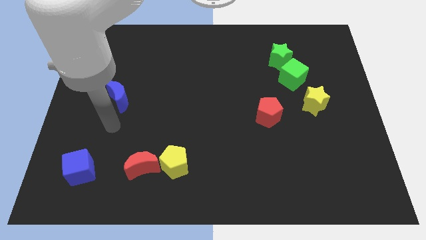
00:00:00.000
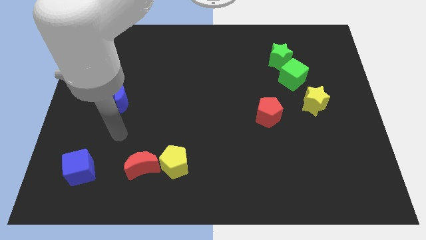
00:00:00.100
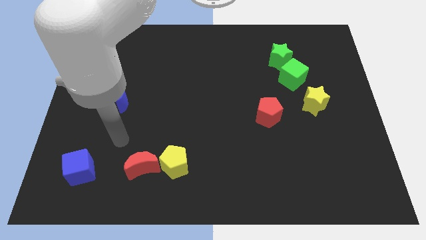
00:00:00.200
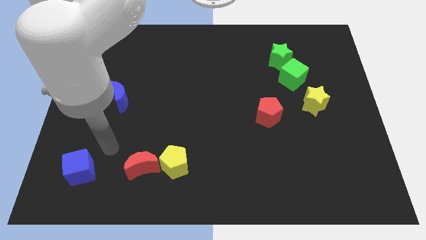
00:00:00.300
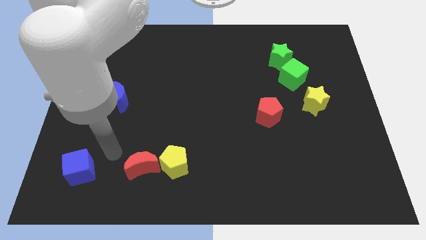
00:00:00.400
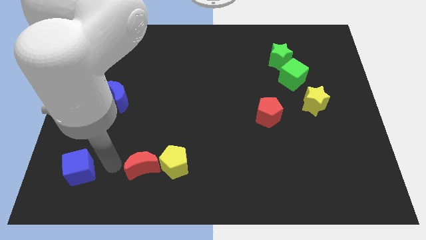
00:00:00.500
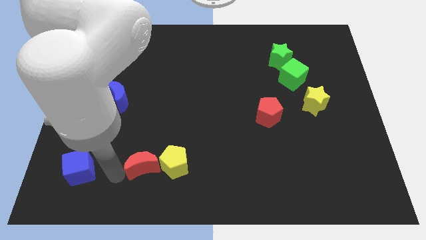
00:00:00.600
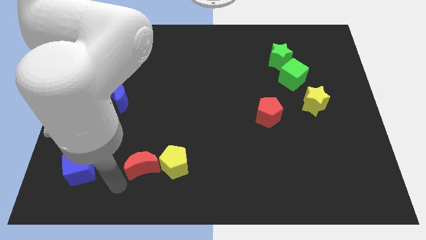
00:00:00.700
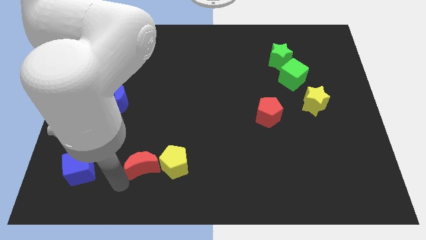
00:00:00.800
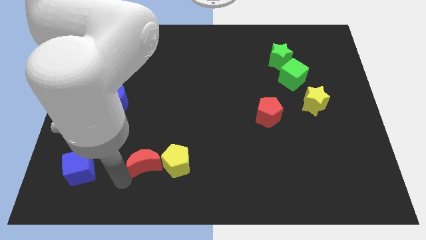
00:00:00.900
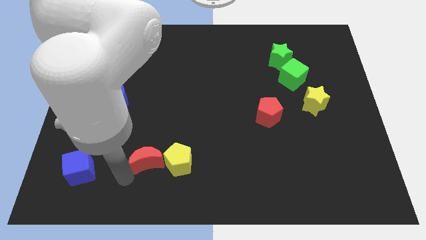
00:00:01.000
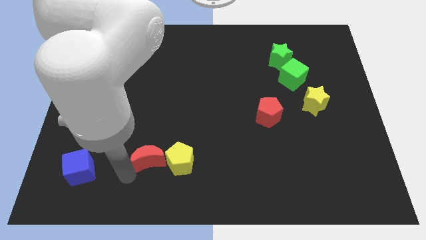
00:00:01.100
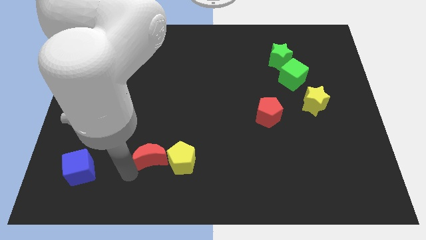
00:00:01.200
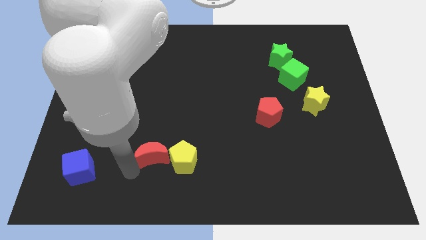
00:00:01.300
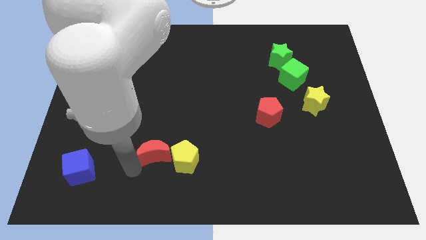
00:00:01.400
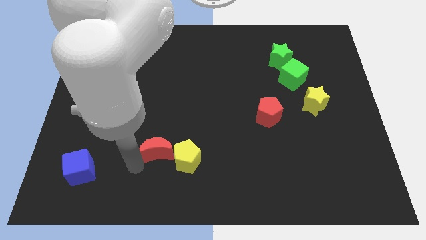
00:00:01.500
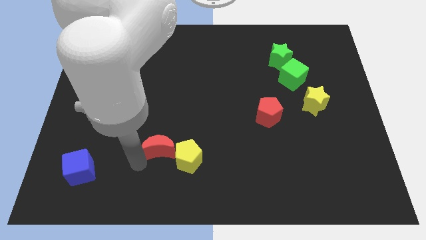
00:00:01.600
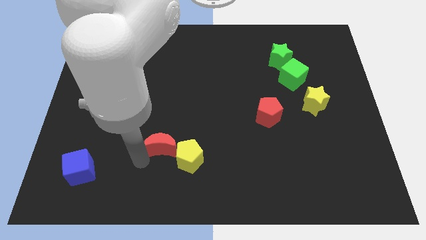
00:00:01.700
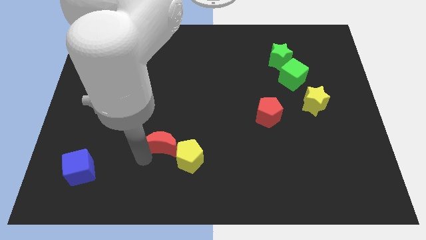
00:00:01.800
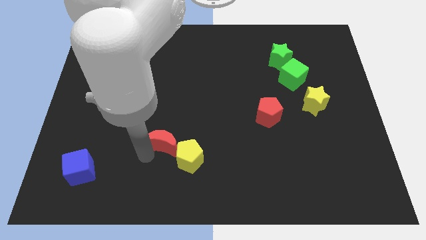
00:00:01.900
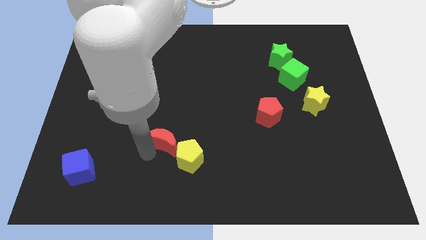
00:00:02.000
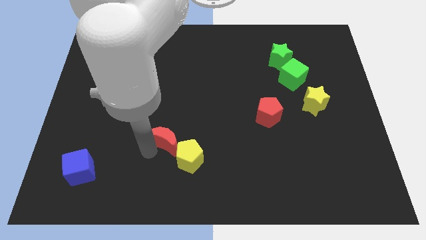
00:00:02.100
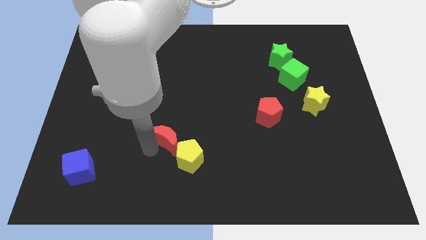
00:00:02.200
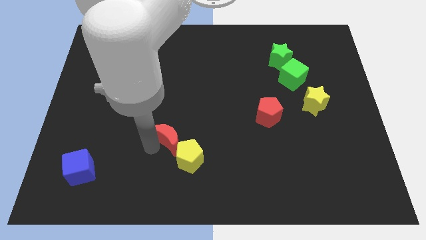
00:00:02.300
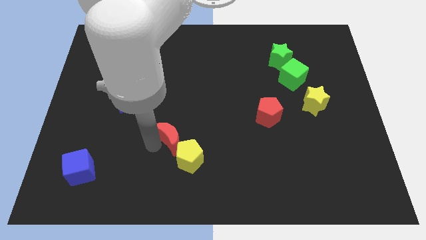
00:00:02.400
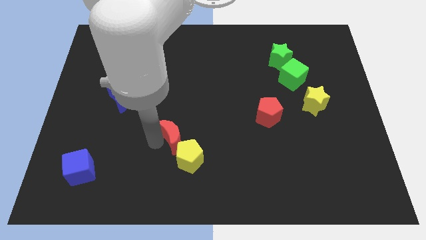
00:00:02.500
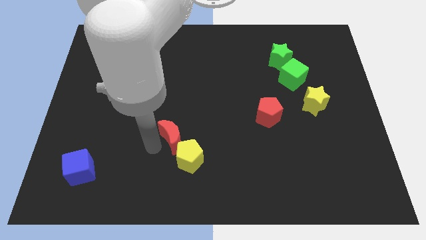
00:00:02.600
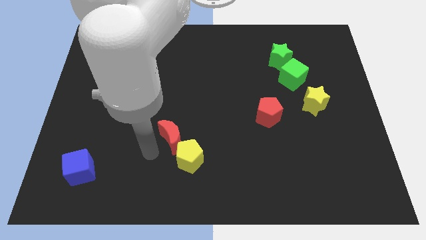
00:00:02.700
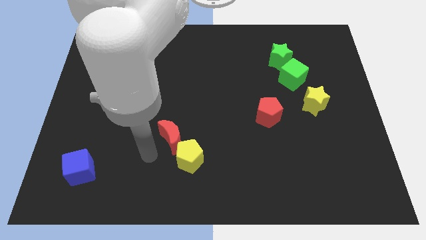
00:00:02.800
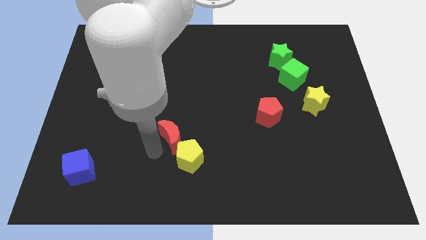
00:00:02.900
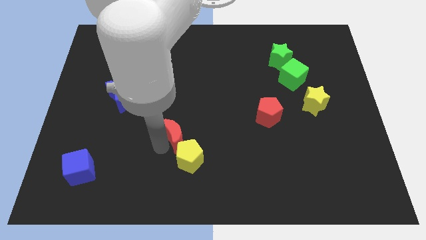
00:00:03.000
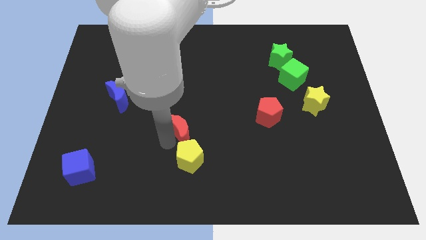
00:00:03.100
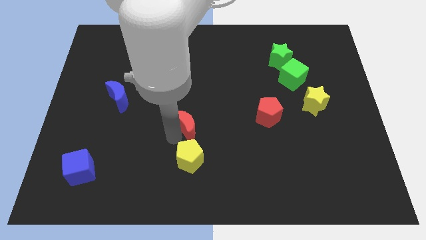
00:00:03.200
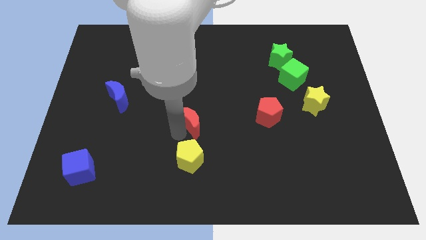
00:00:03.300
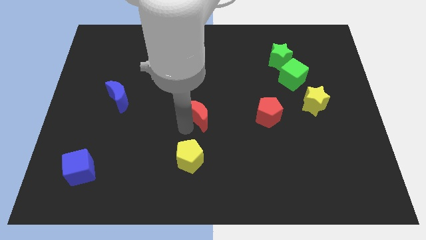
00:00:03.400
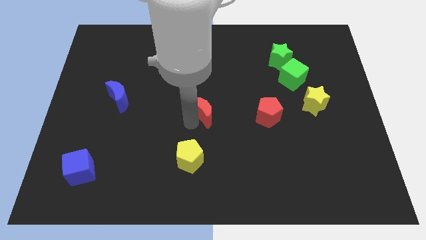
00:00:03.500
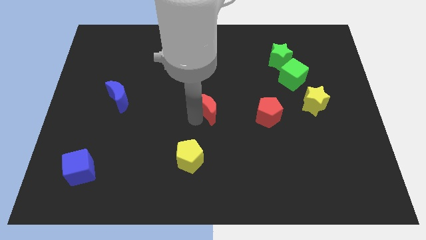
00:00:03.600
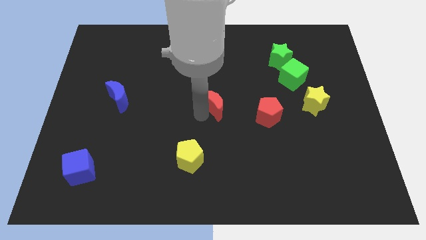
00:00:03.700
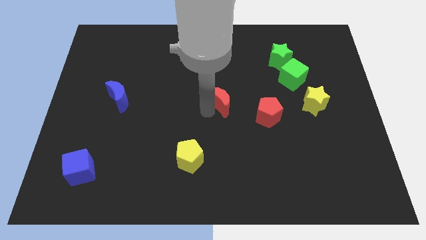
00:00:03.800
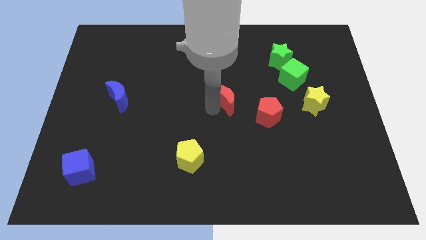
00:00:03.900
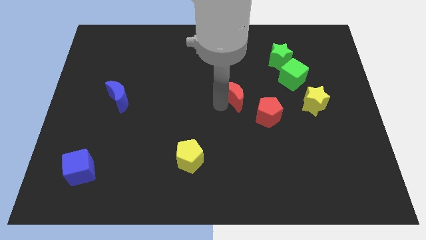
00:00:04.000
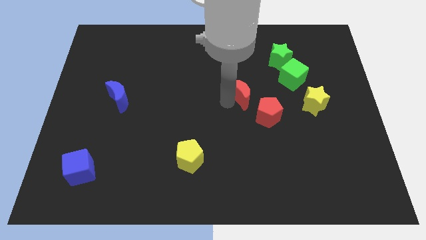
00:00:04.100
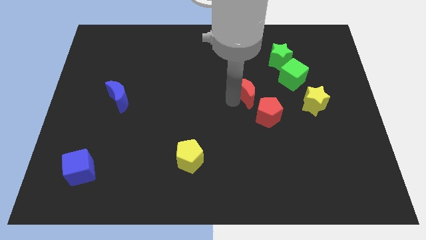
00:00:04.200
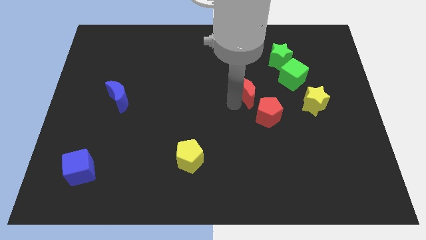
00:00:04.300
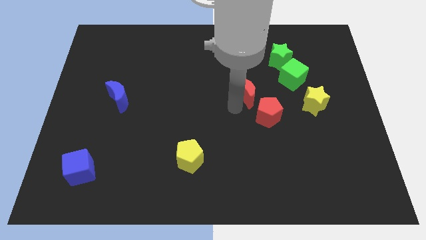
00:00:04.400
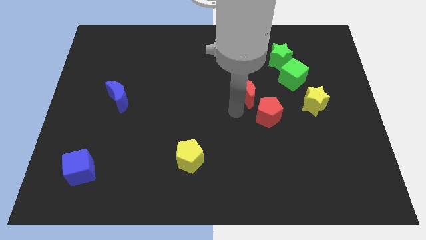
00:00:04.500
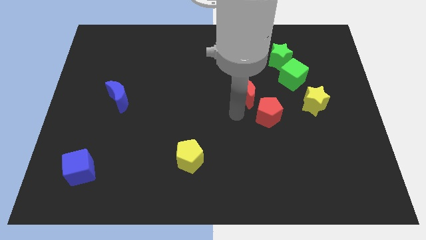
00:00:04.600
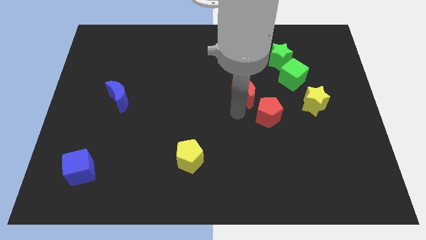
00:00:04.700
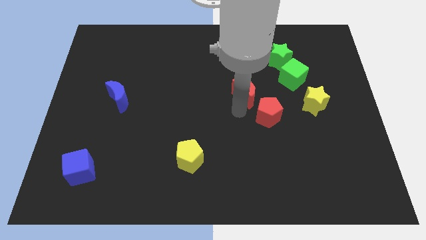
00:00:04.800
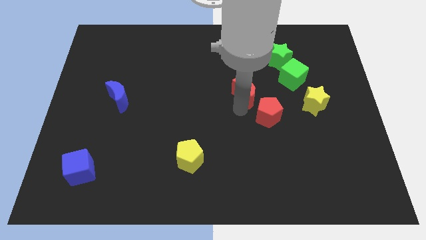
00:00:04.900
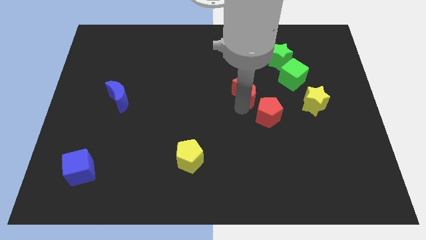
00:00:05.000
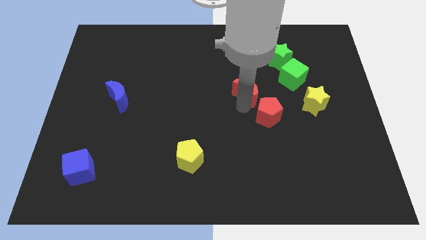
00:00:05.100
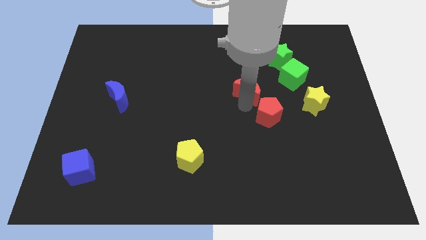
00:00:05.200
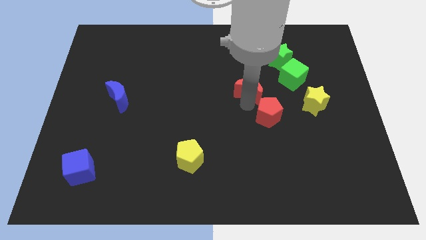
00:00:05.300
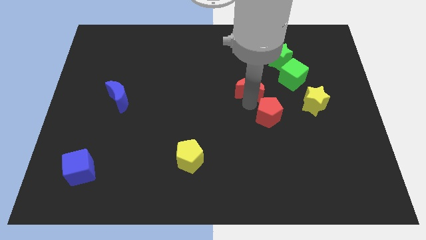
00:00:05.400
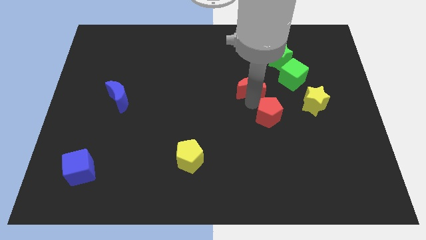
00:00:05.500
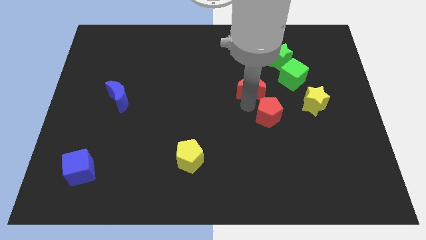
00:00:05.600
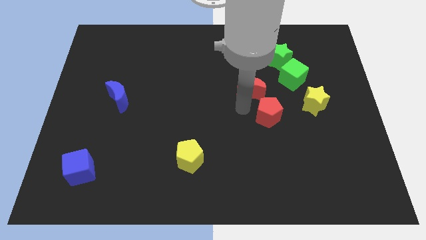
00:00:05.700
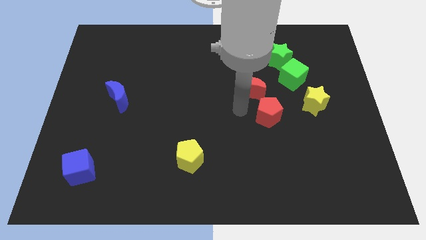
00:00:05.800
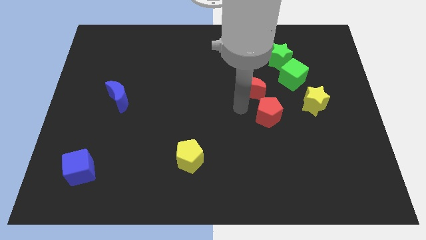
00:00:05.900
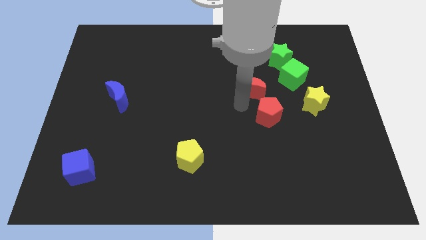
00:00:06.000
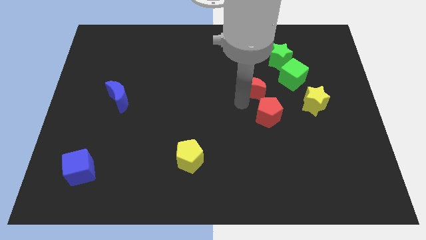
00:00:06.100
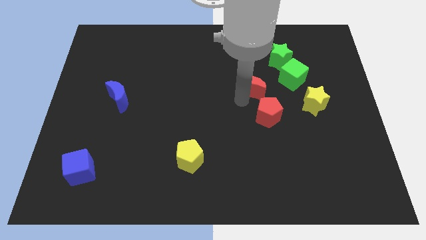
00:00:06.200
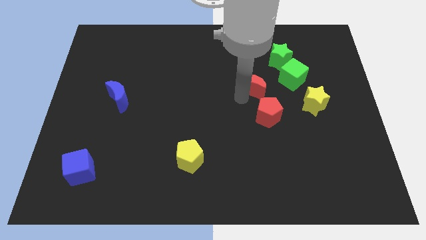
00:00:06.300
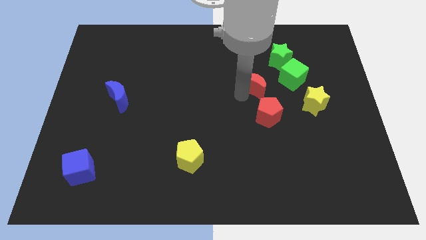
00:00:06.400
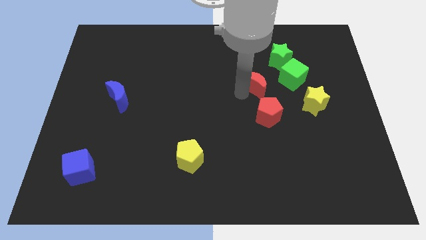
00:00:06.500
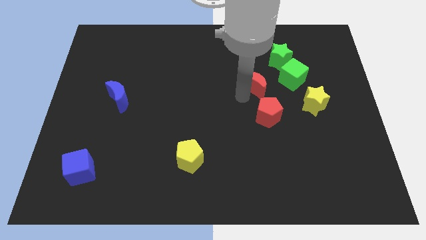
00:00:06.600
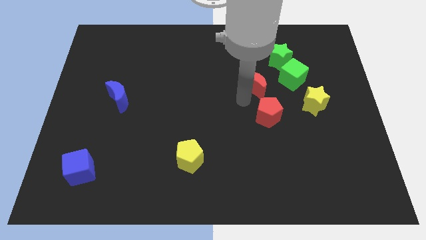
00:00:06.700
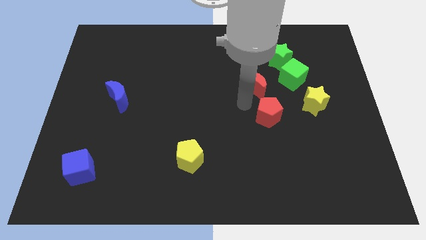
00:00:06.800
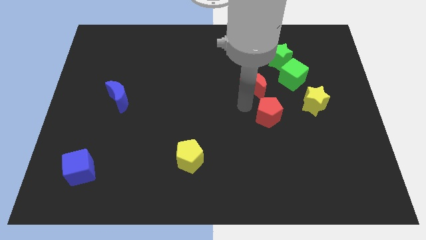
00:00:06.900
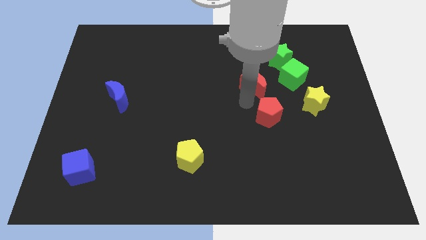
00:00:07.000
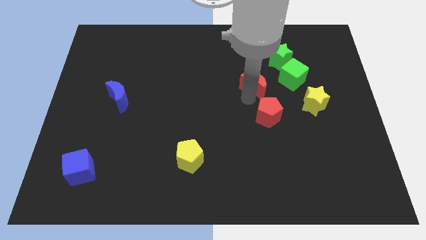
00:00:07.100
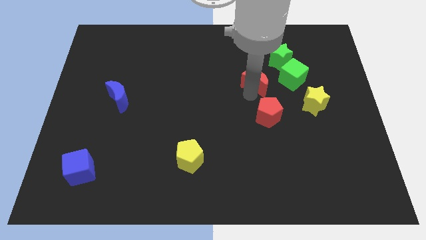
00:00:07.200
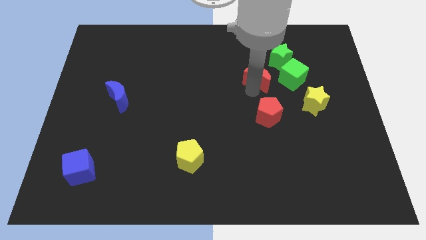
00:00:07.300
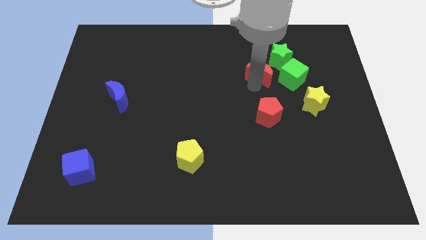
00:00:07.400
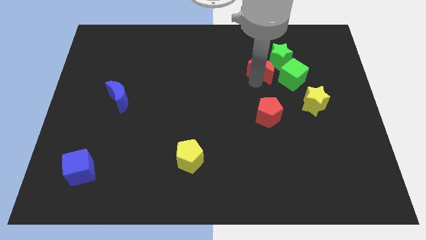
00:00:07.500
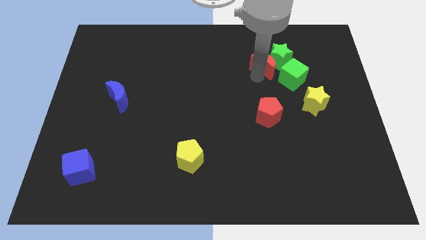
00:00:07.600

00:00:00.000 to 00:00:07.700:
move the red moon to the green star

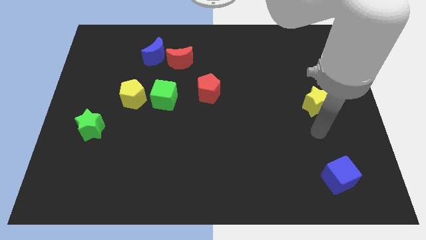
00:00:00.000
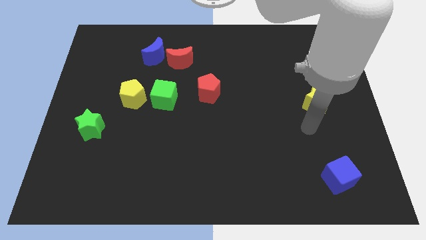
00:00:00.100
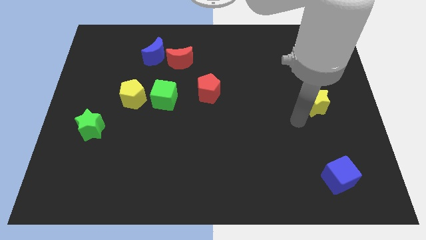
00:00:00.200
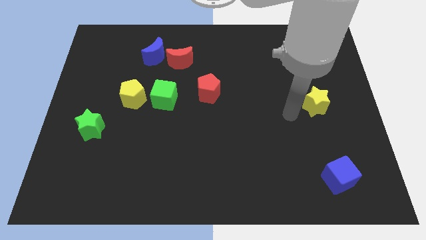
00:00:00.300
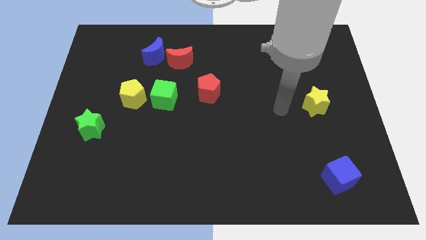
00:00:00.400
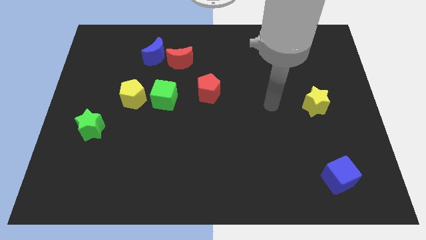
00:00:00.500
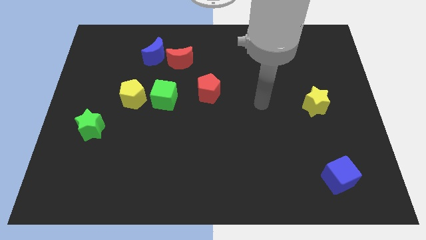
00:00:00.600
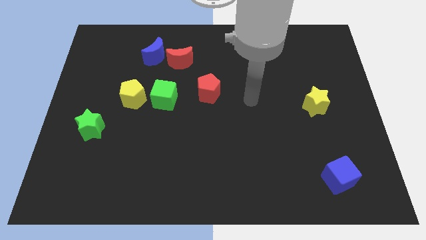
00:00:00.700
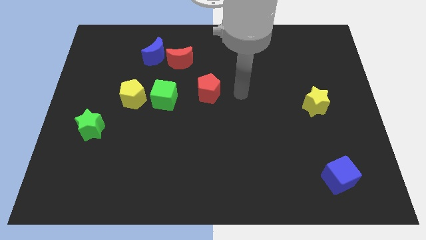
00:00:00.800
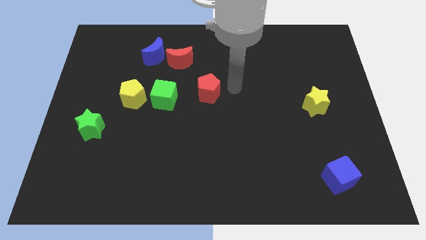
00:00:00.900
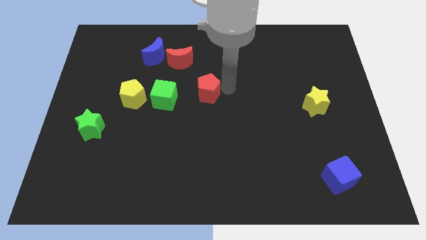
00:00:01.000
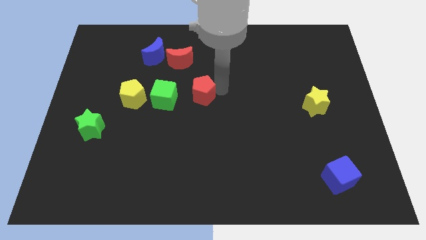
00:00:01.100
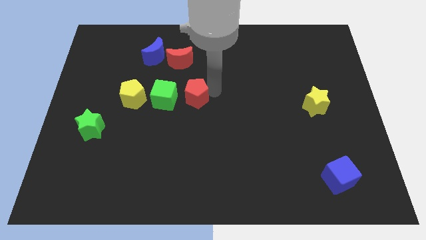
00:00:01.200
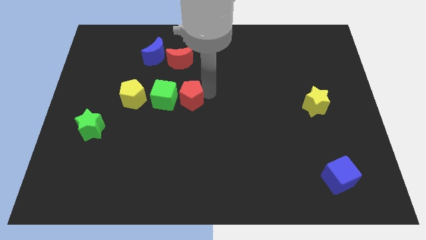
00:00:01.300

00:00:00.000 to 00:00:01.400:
move the red pentagon towards the green cube
